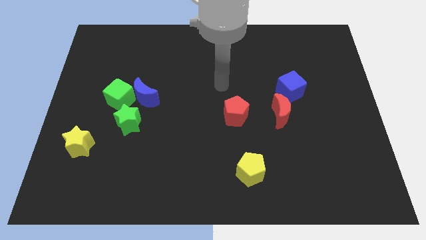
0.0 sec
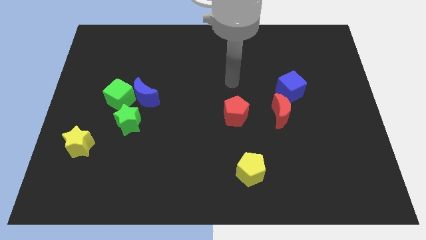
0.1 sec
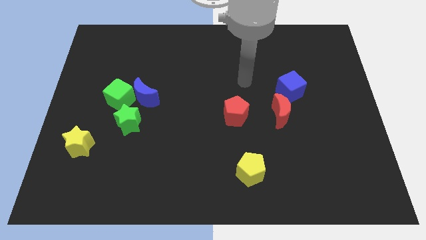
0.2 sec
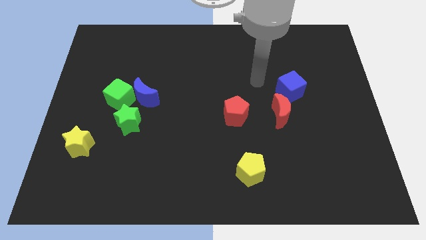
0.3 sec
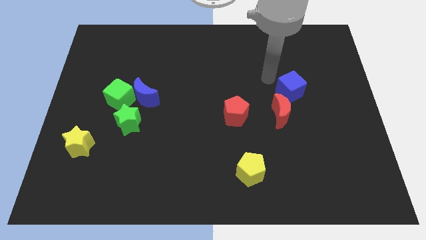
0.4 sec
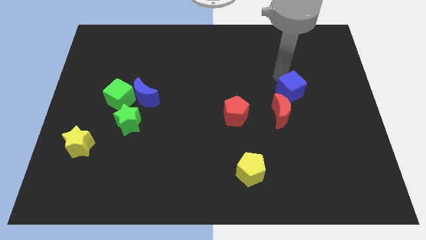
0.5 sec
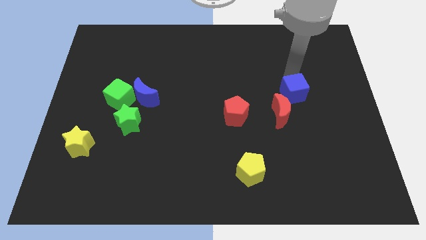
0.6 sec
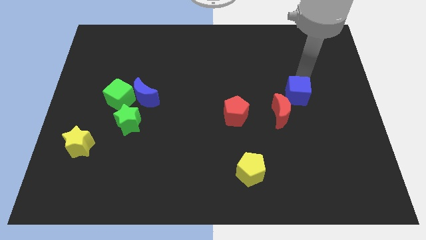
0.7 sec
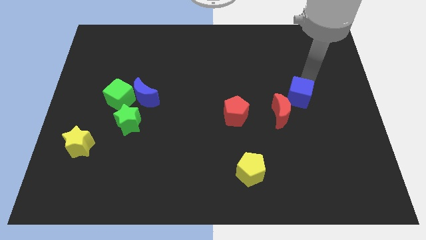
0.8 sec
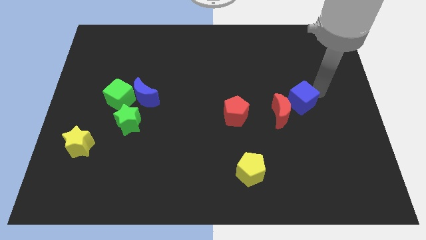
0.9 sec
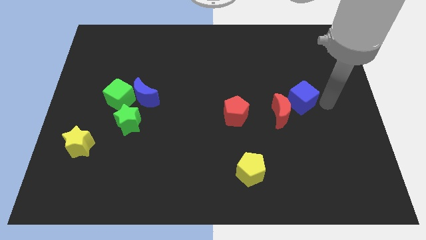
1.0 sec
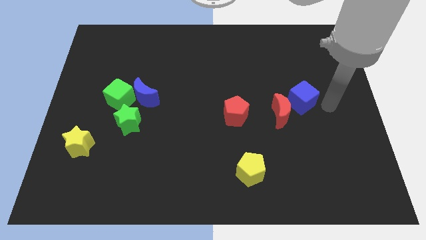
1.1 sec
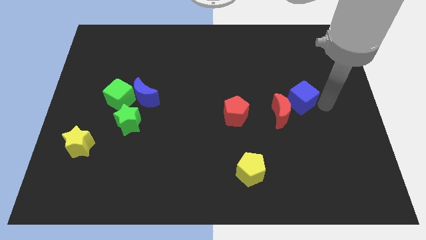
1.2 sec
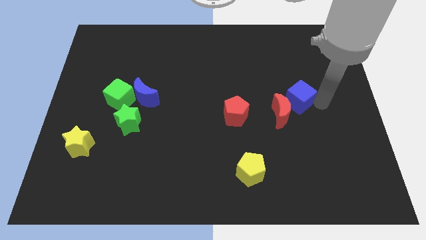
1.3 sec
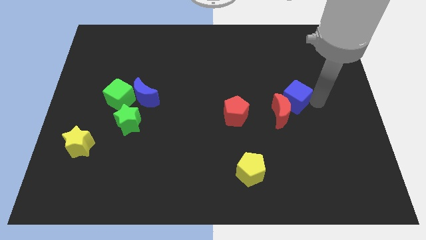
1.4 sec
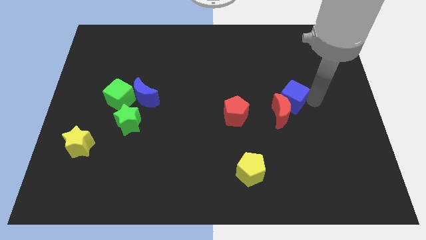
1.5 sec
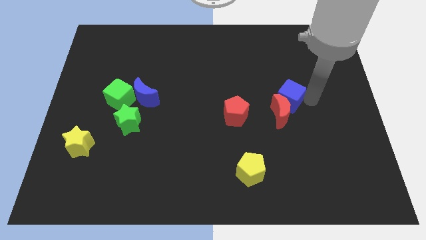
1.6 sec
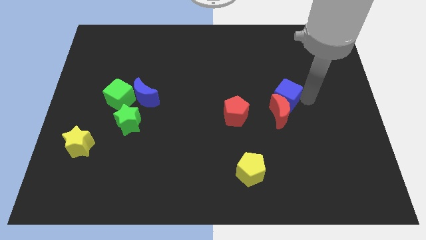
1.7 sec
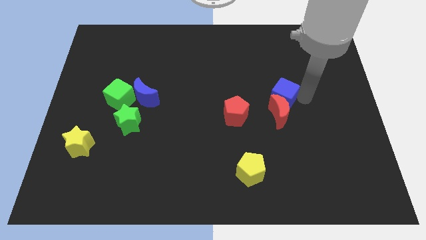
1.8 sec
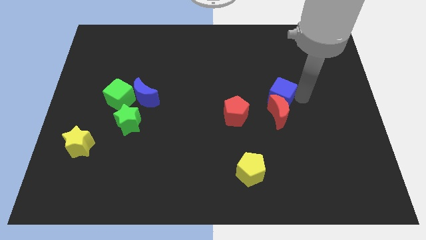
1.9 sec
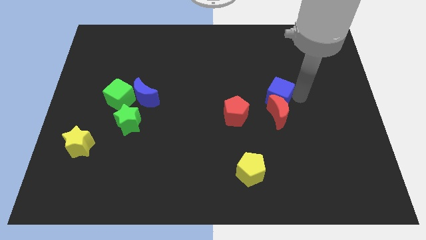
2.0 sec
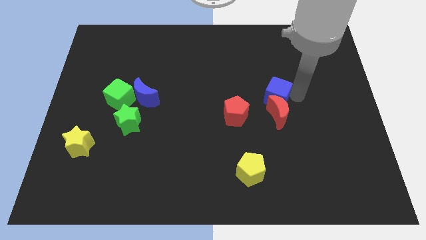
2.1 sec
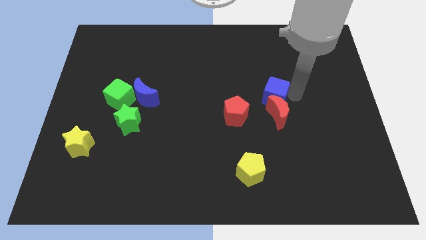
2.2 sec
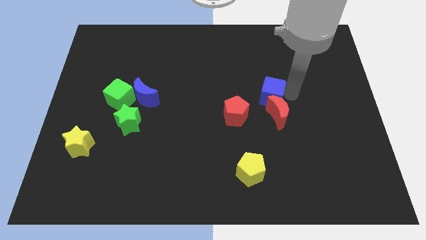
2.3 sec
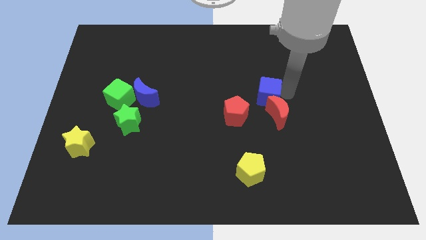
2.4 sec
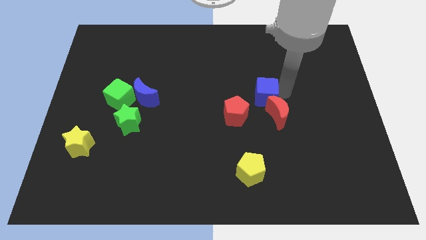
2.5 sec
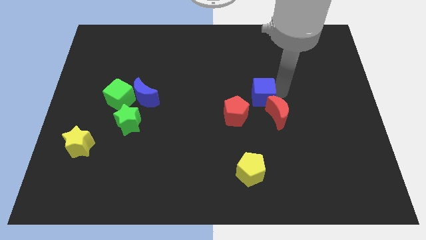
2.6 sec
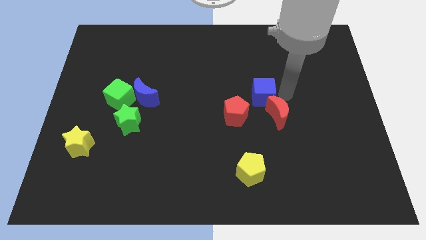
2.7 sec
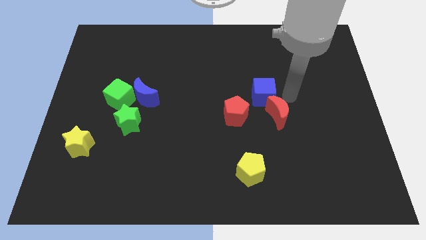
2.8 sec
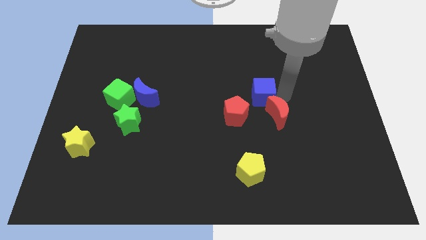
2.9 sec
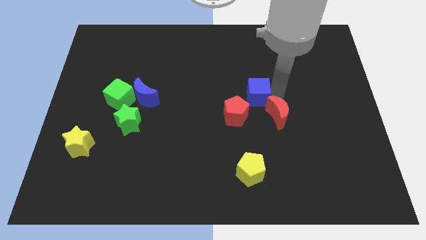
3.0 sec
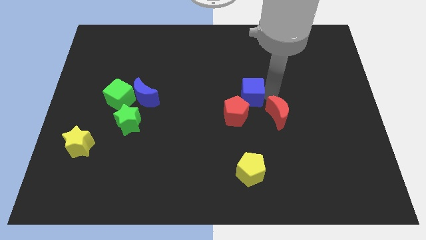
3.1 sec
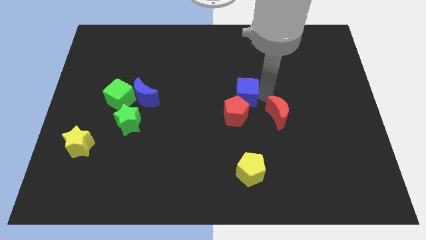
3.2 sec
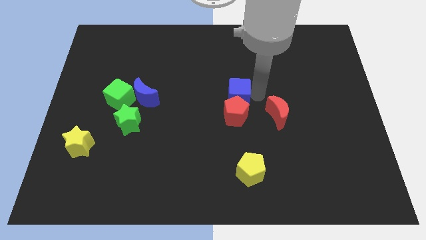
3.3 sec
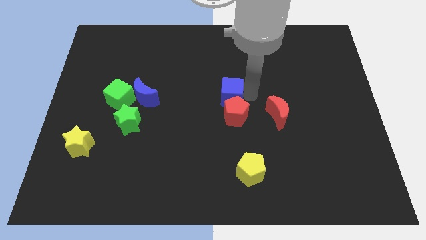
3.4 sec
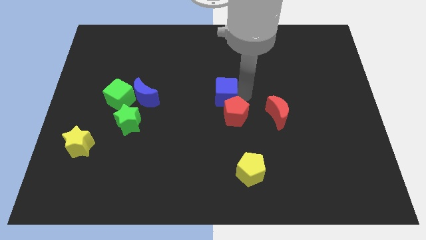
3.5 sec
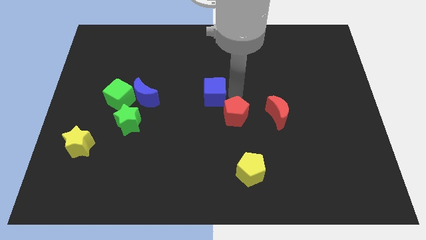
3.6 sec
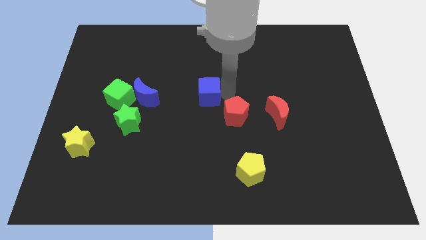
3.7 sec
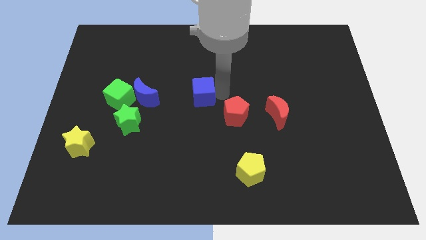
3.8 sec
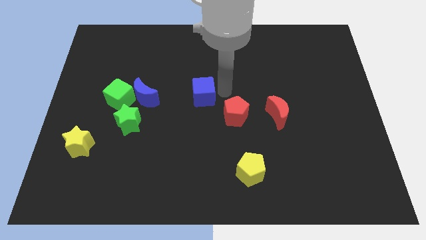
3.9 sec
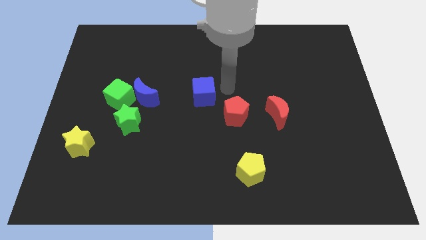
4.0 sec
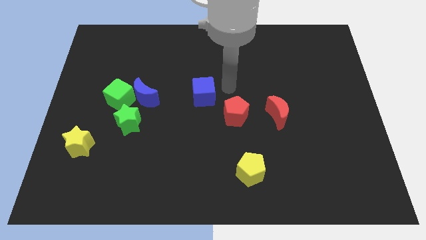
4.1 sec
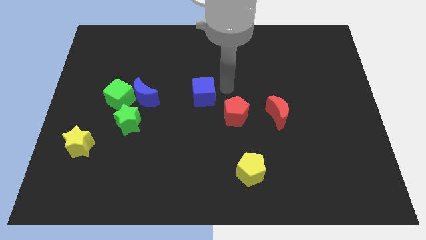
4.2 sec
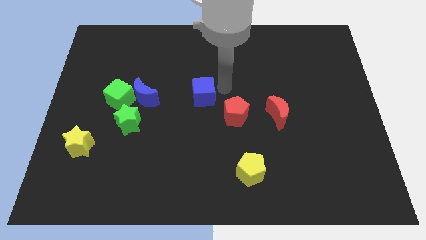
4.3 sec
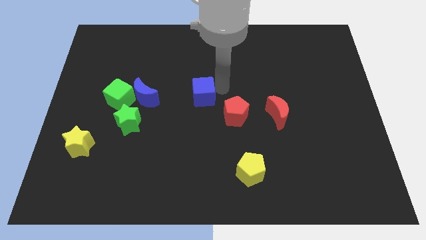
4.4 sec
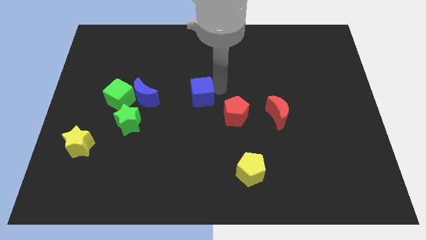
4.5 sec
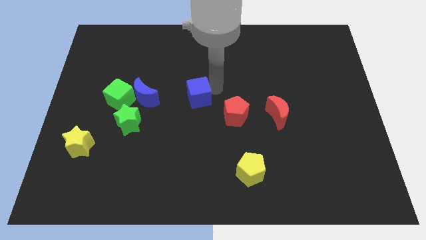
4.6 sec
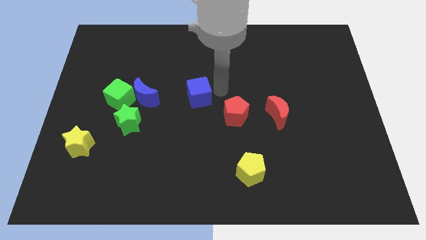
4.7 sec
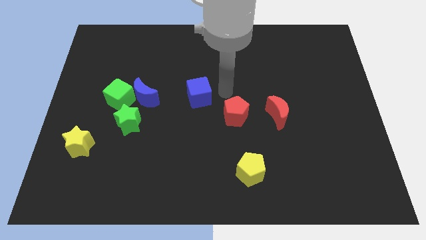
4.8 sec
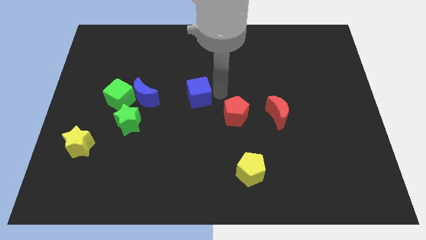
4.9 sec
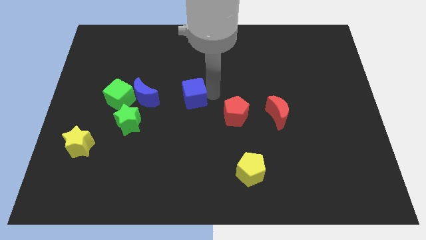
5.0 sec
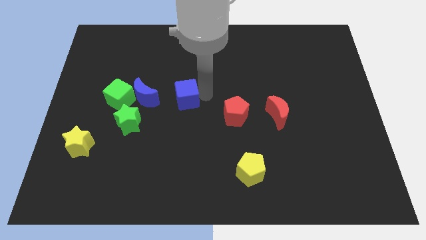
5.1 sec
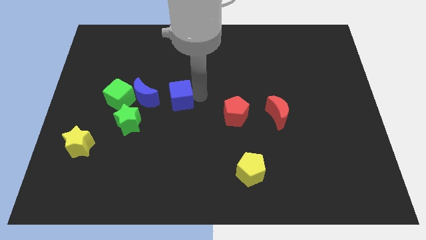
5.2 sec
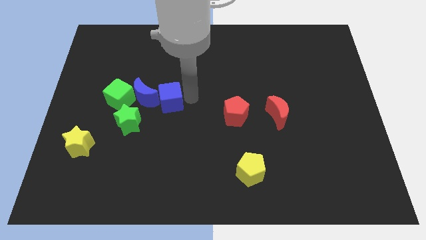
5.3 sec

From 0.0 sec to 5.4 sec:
slide the blue cube towards the blue moon

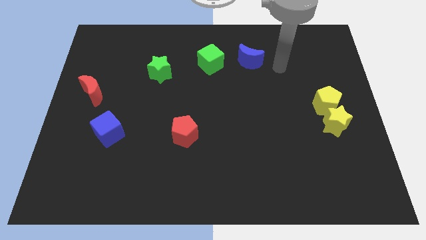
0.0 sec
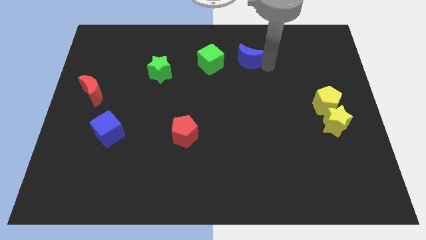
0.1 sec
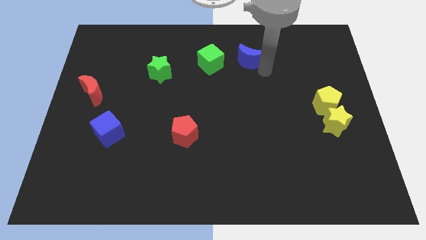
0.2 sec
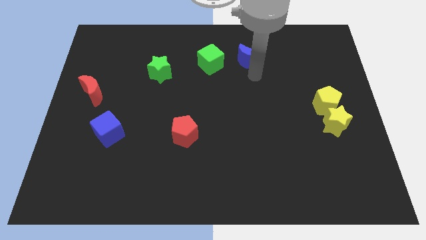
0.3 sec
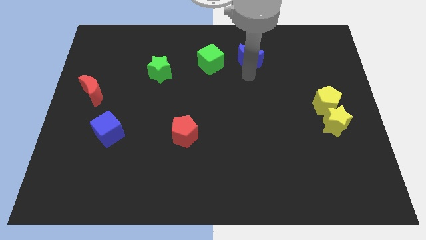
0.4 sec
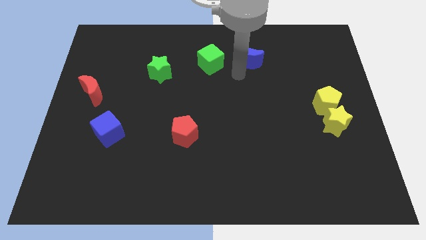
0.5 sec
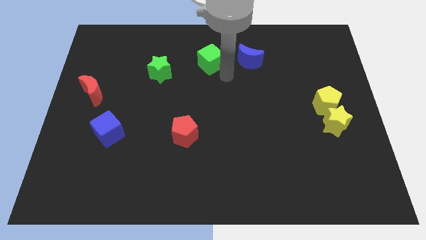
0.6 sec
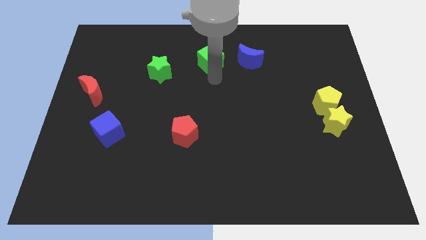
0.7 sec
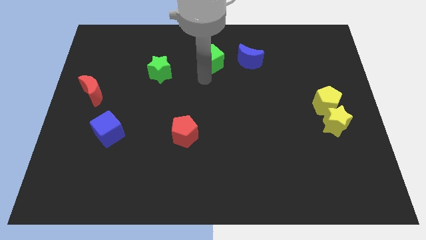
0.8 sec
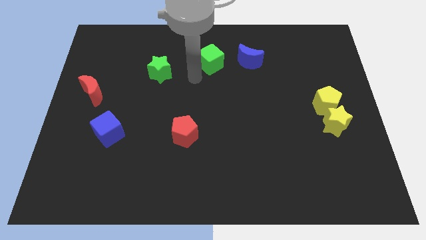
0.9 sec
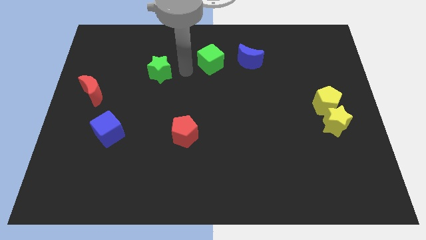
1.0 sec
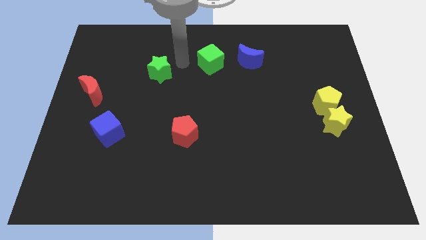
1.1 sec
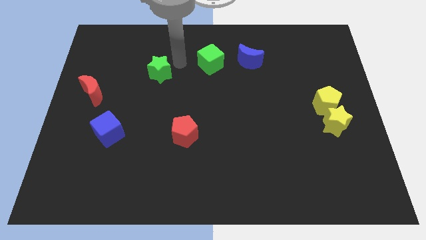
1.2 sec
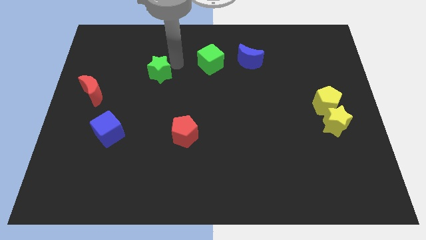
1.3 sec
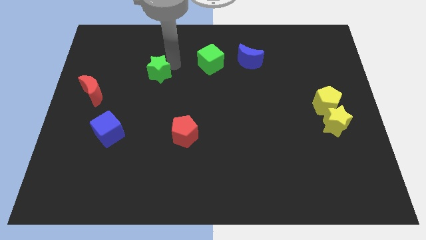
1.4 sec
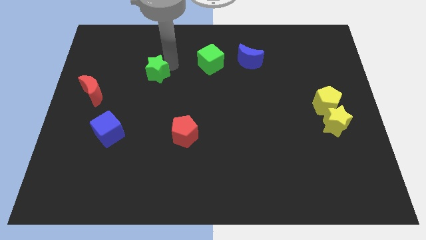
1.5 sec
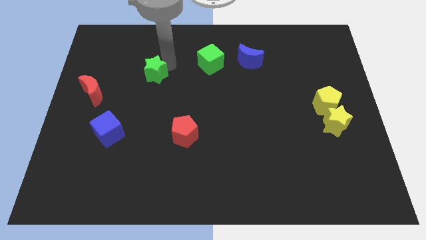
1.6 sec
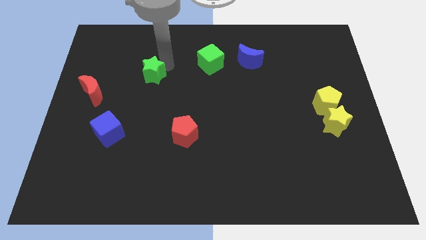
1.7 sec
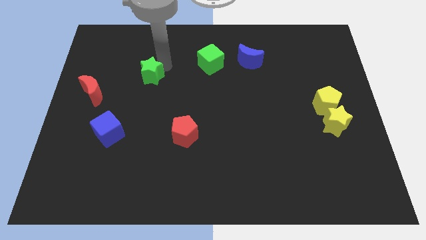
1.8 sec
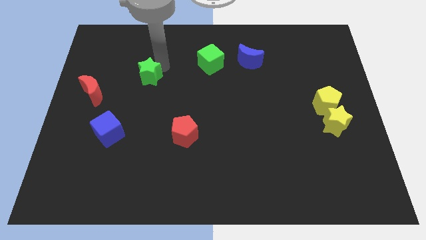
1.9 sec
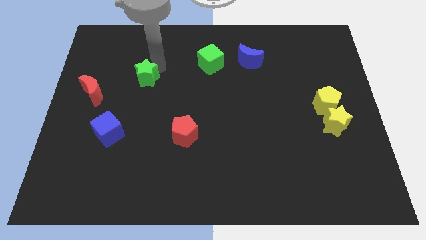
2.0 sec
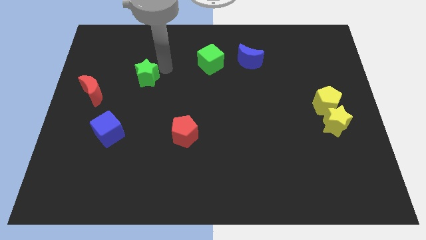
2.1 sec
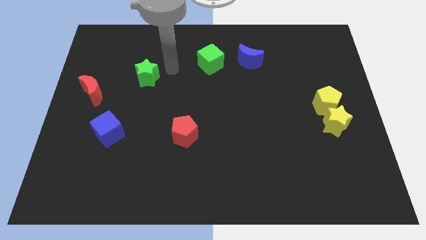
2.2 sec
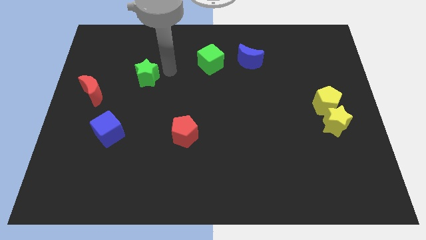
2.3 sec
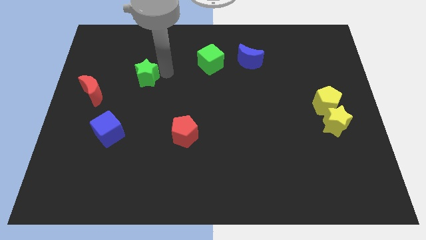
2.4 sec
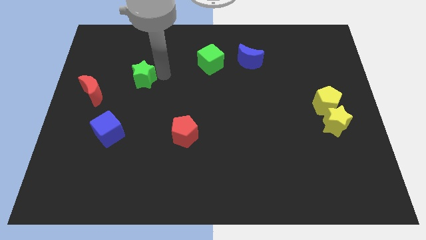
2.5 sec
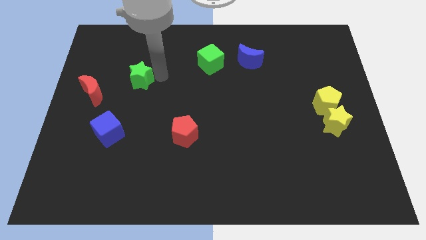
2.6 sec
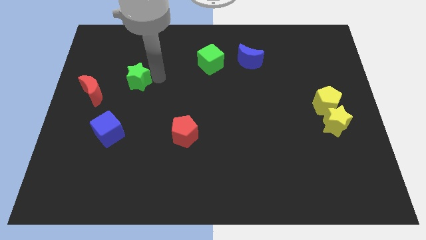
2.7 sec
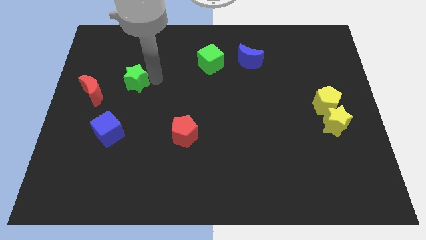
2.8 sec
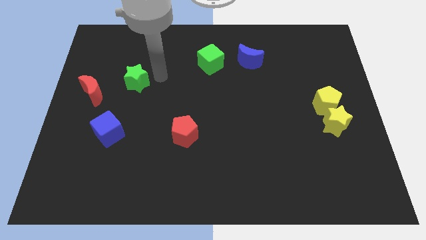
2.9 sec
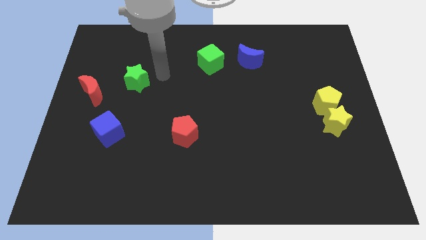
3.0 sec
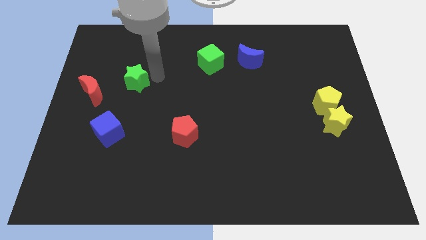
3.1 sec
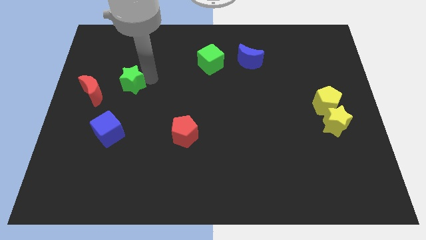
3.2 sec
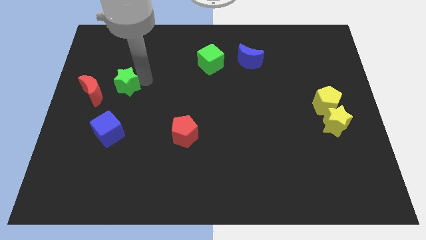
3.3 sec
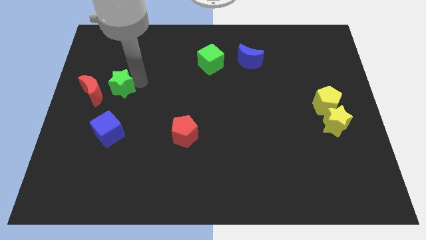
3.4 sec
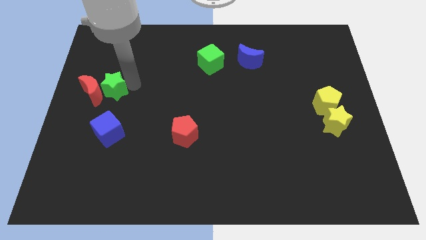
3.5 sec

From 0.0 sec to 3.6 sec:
move the green star towards the red moon
